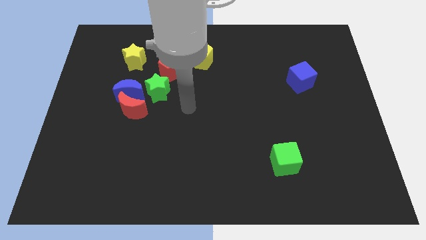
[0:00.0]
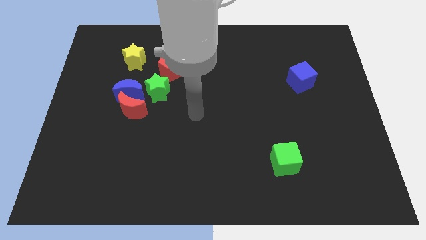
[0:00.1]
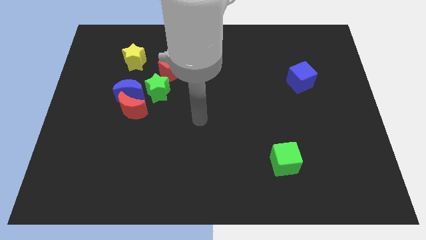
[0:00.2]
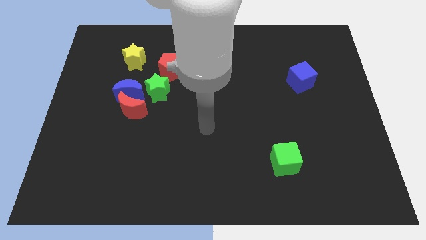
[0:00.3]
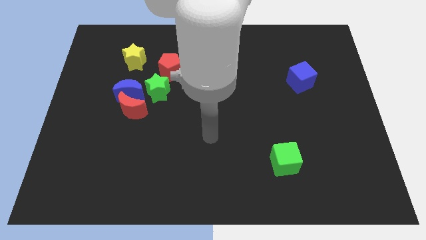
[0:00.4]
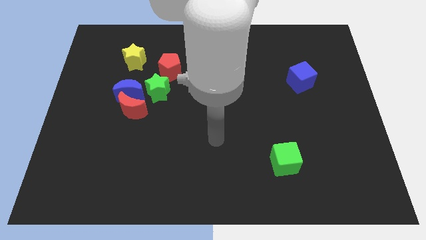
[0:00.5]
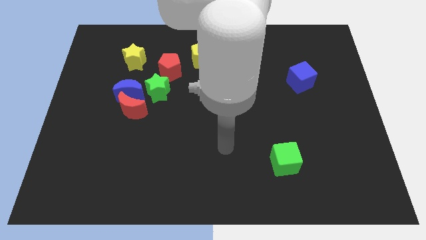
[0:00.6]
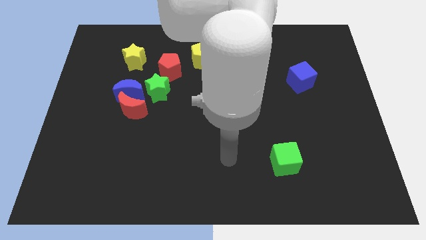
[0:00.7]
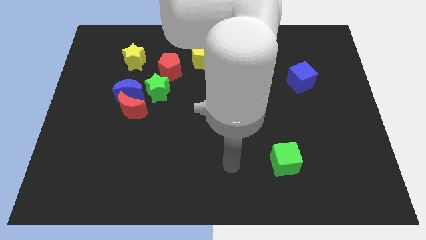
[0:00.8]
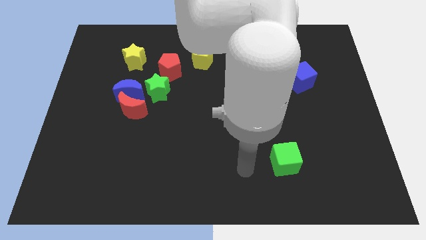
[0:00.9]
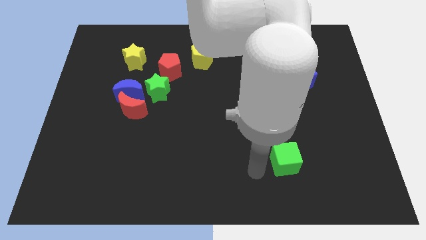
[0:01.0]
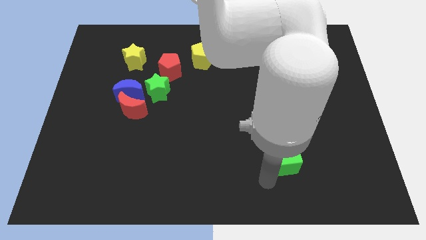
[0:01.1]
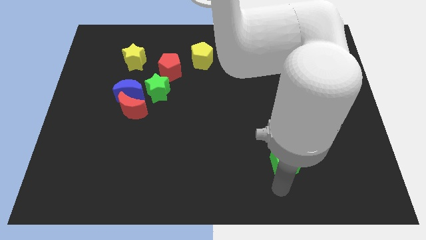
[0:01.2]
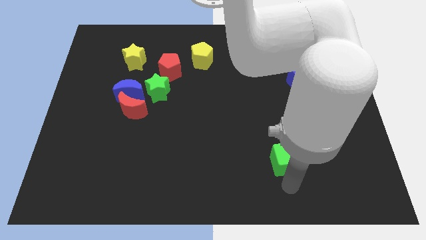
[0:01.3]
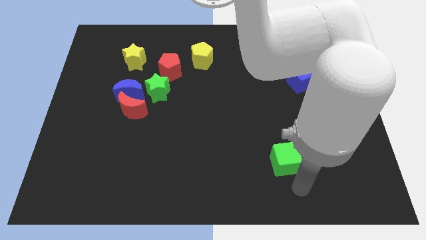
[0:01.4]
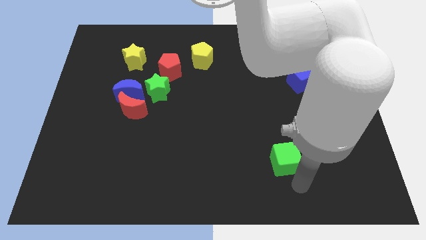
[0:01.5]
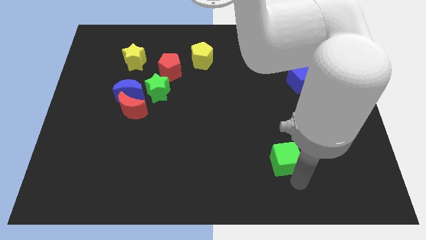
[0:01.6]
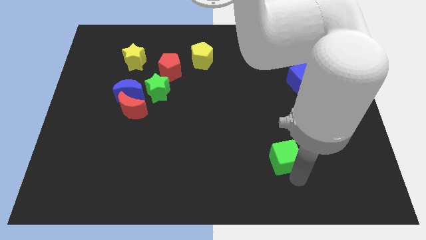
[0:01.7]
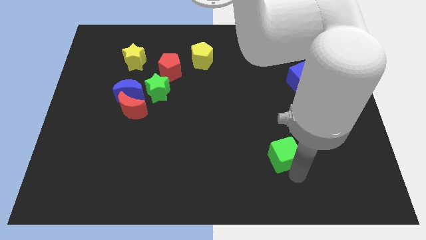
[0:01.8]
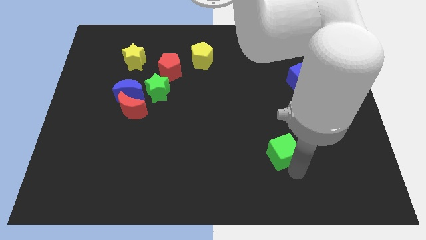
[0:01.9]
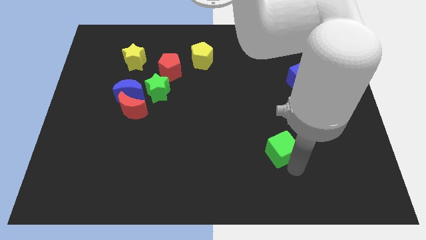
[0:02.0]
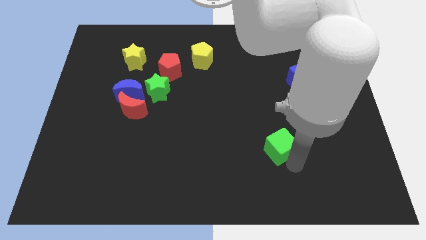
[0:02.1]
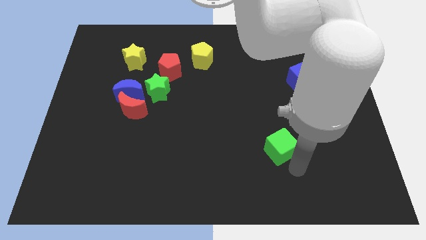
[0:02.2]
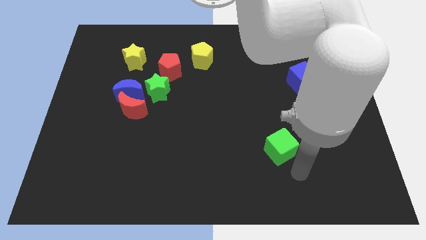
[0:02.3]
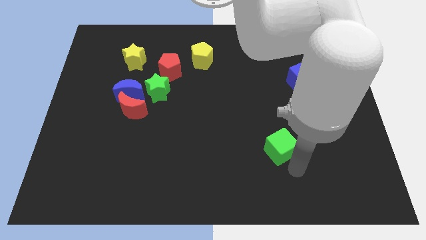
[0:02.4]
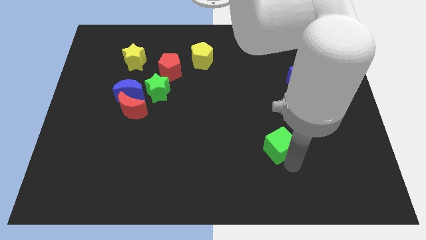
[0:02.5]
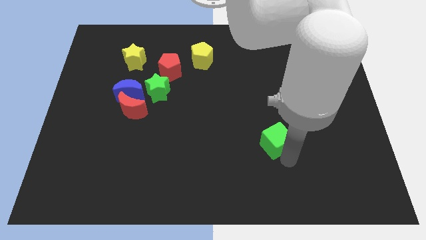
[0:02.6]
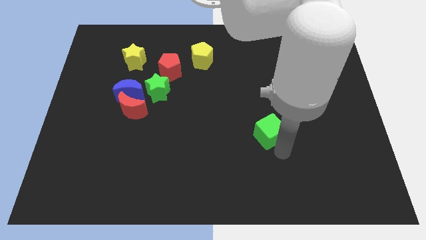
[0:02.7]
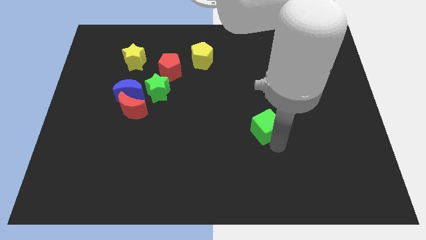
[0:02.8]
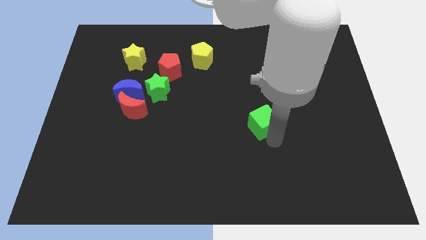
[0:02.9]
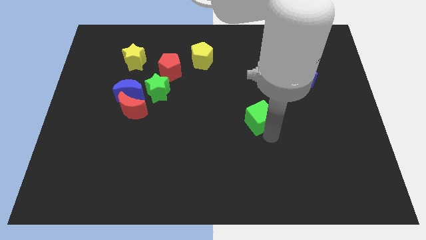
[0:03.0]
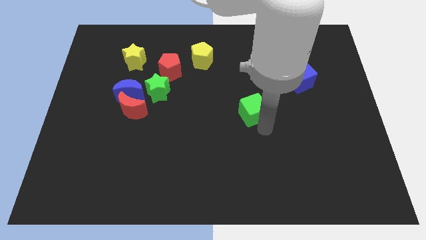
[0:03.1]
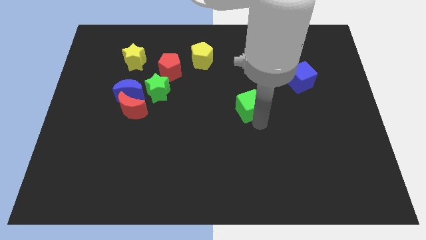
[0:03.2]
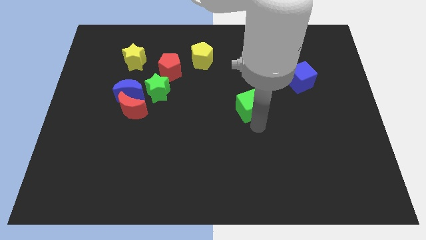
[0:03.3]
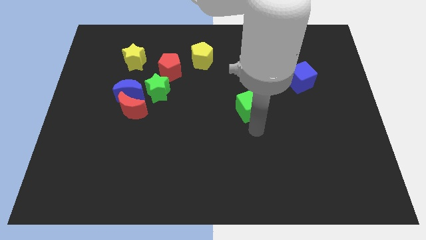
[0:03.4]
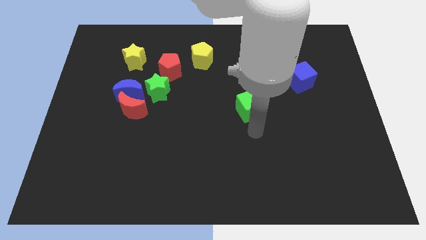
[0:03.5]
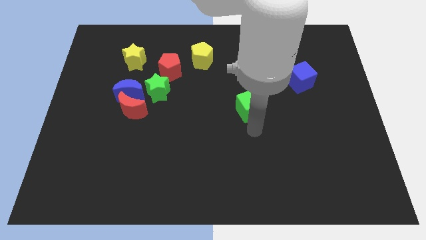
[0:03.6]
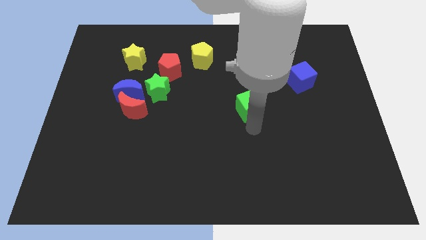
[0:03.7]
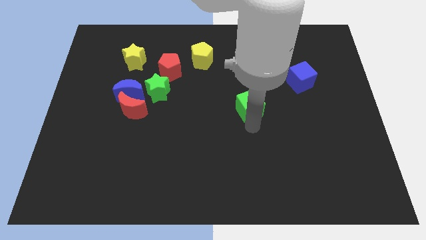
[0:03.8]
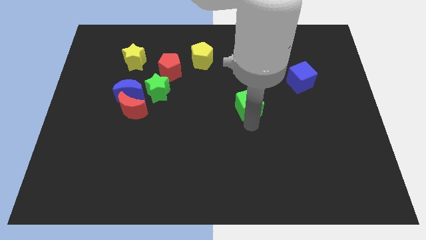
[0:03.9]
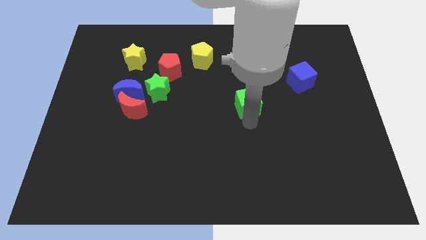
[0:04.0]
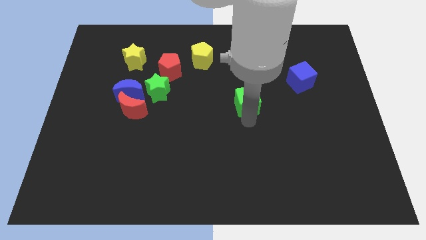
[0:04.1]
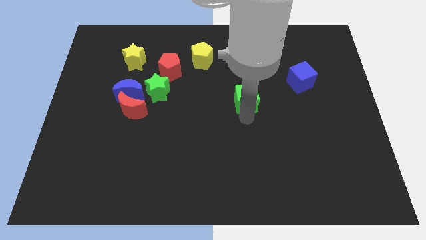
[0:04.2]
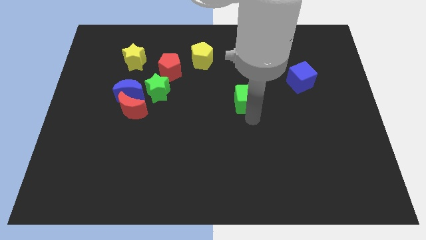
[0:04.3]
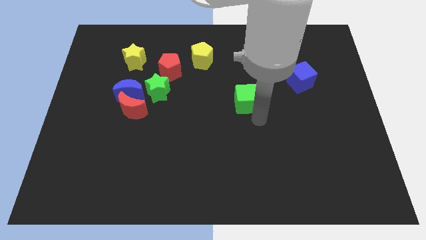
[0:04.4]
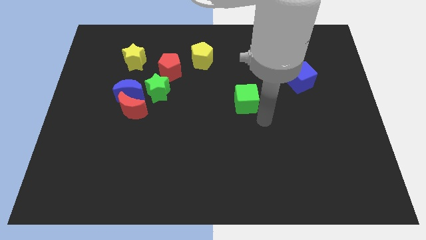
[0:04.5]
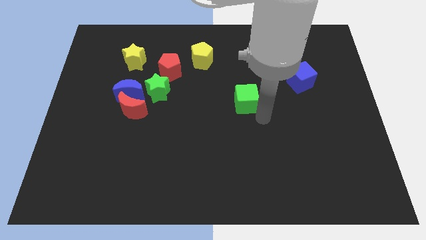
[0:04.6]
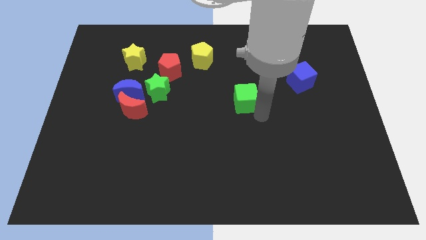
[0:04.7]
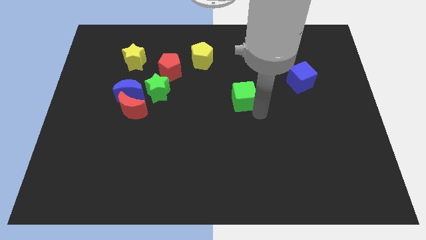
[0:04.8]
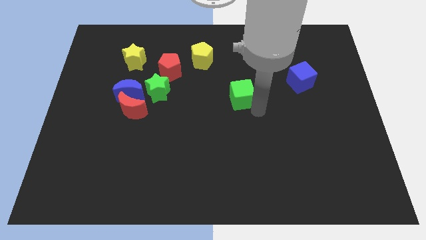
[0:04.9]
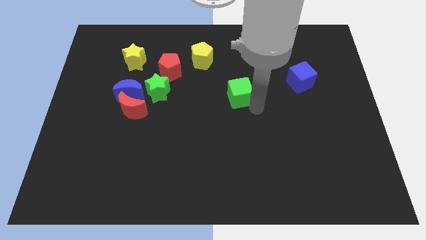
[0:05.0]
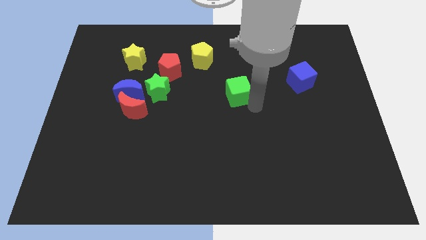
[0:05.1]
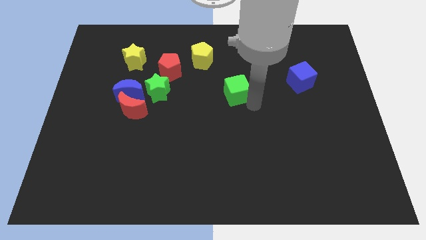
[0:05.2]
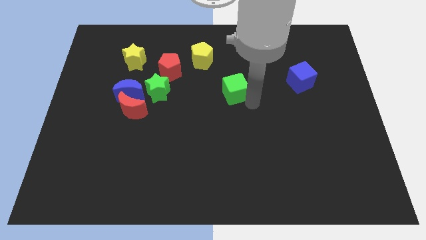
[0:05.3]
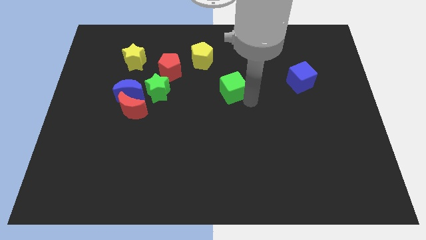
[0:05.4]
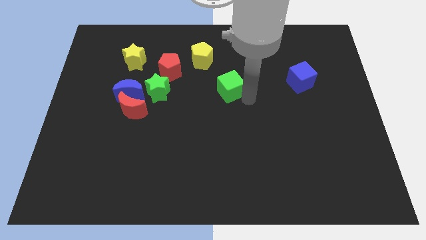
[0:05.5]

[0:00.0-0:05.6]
push the green cube diagonally down and to the right of the yellow pentagon

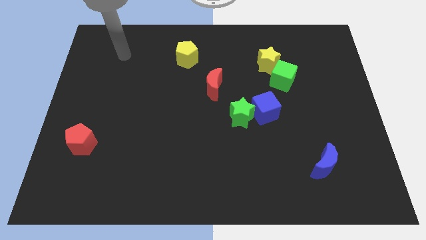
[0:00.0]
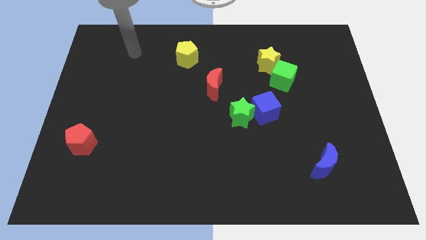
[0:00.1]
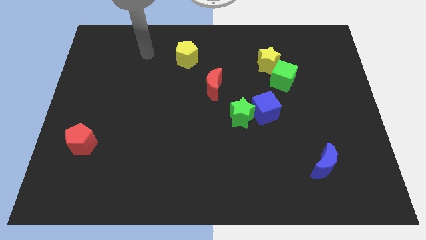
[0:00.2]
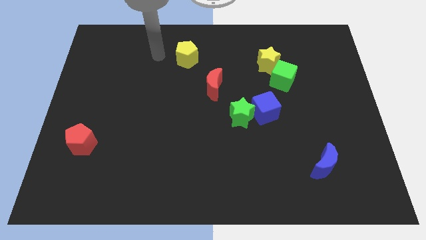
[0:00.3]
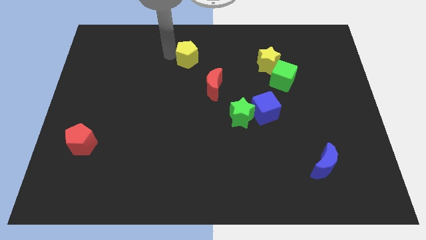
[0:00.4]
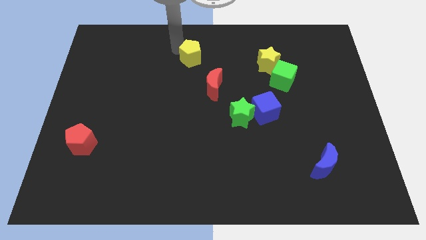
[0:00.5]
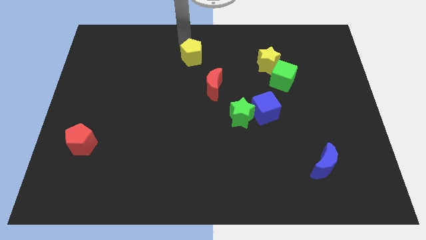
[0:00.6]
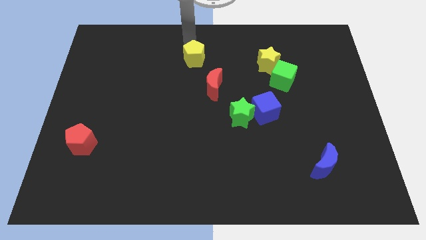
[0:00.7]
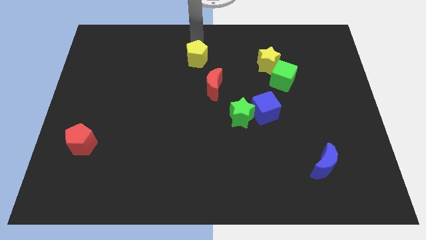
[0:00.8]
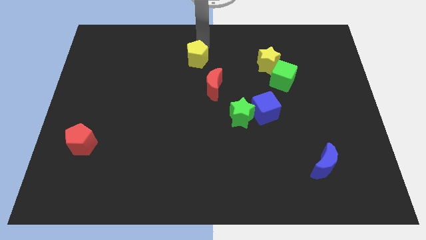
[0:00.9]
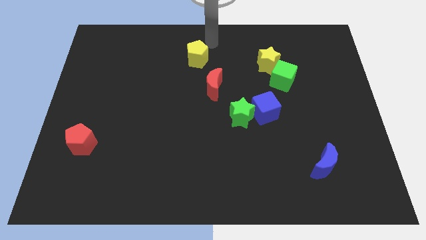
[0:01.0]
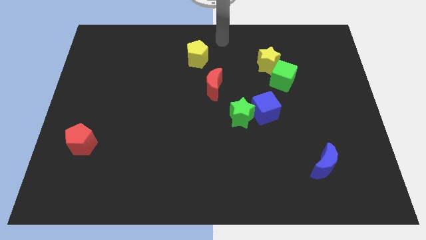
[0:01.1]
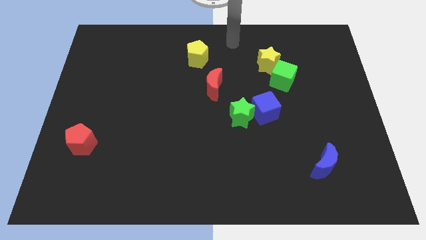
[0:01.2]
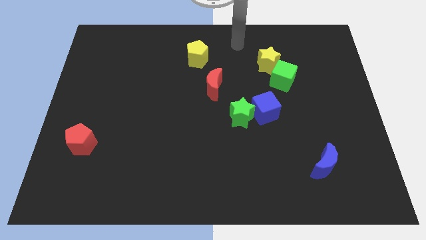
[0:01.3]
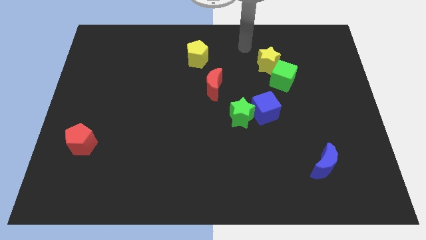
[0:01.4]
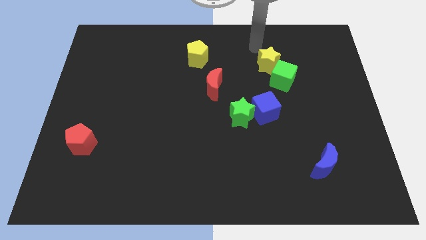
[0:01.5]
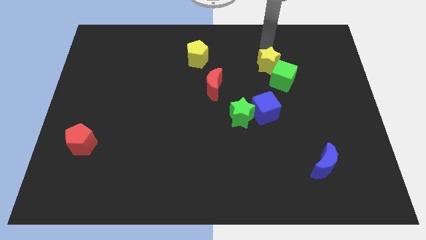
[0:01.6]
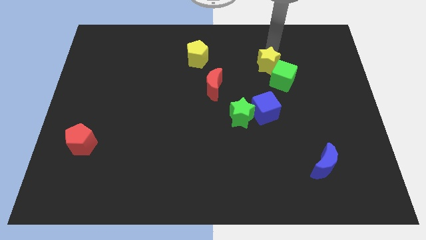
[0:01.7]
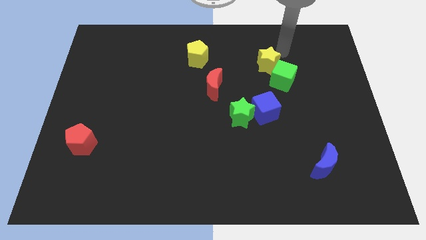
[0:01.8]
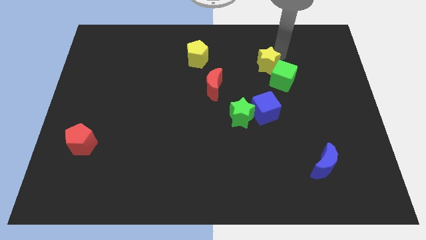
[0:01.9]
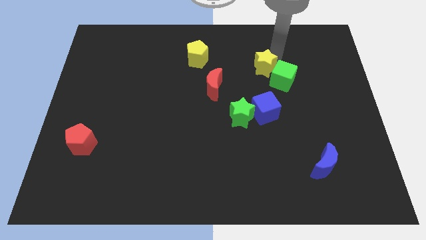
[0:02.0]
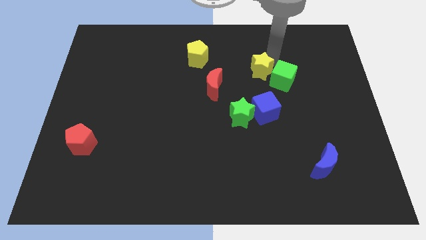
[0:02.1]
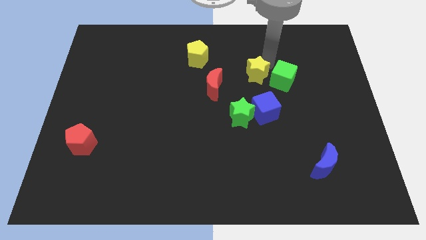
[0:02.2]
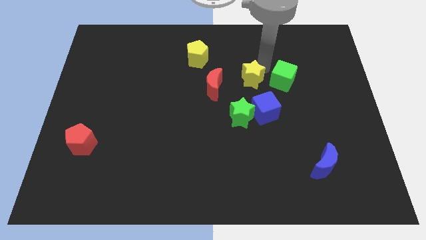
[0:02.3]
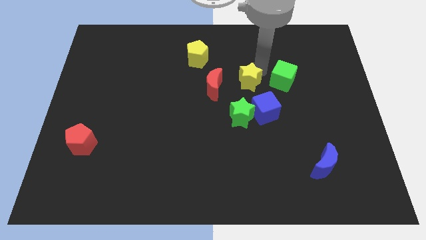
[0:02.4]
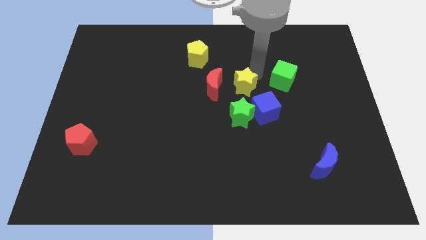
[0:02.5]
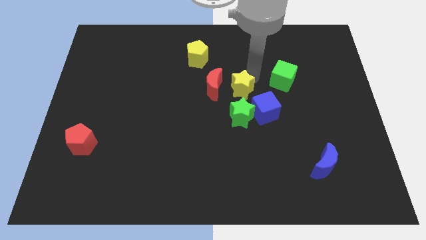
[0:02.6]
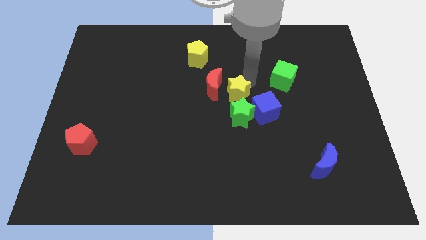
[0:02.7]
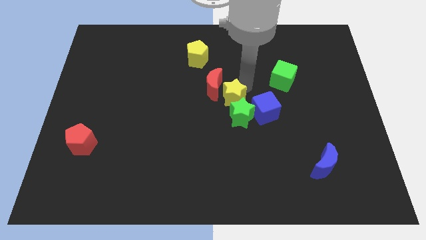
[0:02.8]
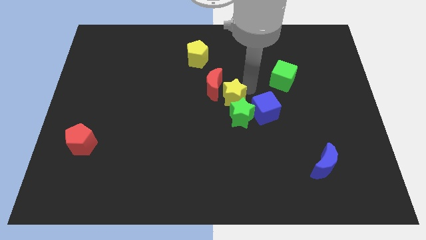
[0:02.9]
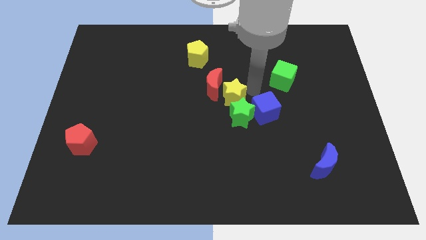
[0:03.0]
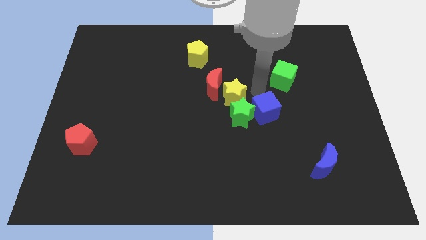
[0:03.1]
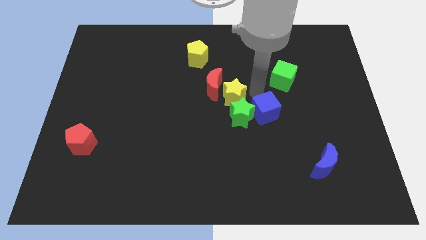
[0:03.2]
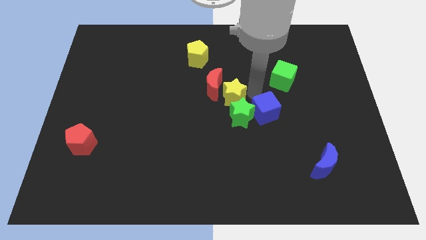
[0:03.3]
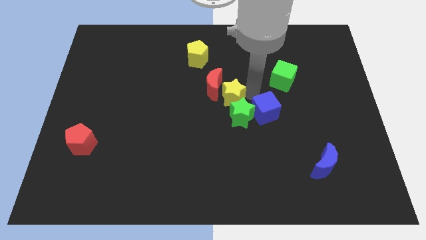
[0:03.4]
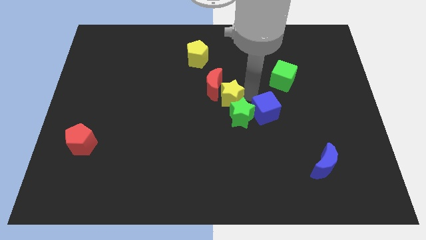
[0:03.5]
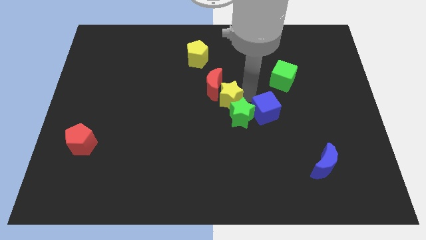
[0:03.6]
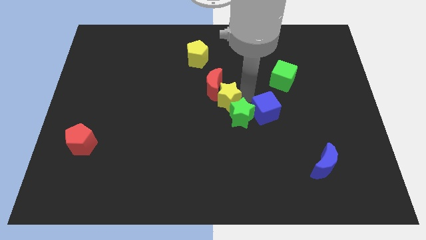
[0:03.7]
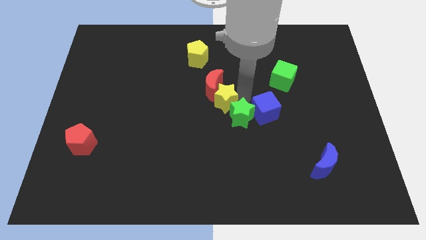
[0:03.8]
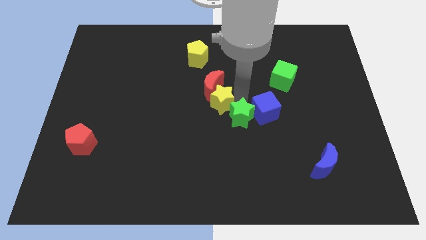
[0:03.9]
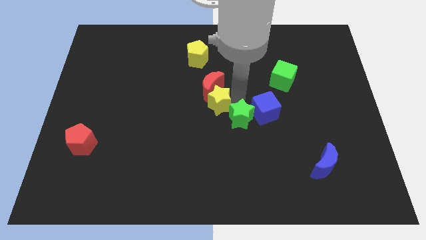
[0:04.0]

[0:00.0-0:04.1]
move the yellow star diagonally down and to the left of the red moon
